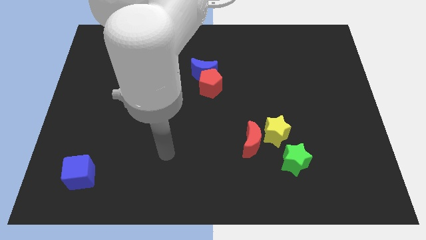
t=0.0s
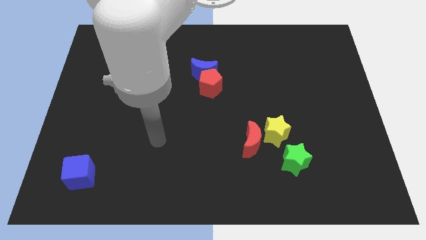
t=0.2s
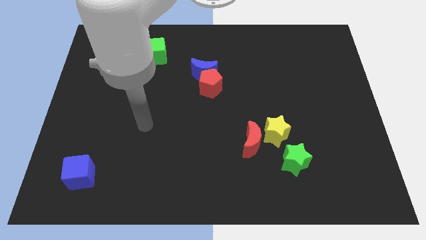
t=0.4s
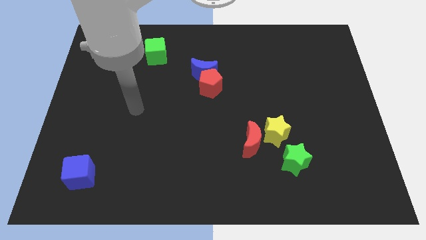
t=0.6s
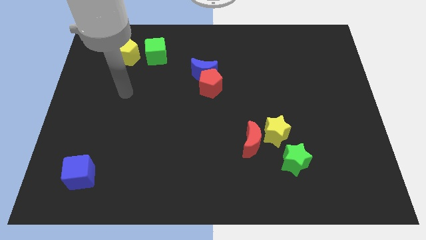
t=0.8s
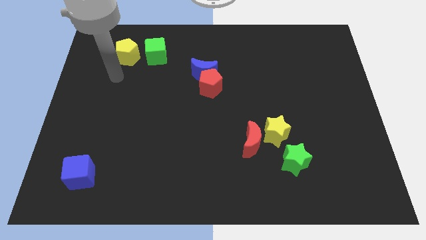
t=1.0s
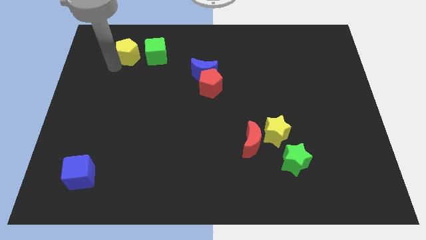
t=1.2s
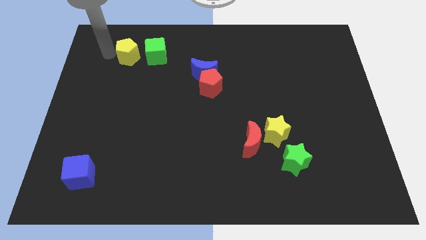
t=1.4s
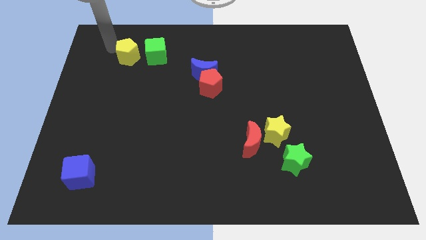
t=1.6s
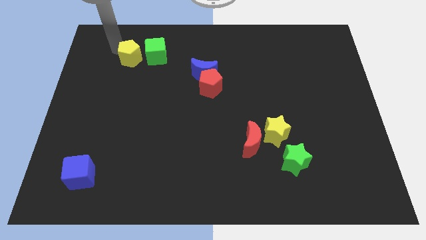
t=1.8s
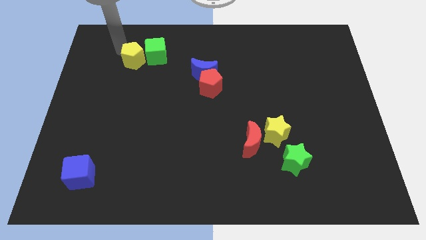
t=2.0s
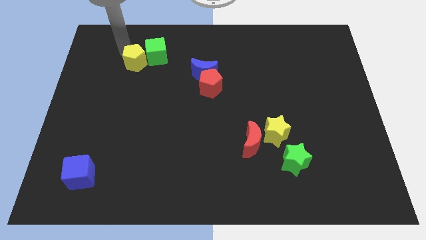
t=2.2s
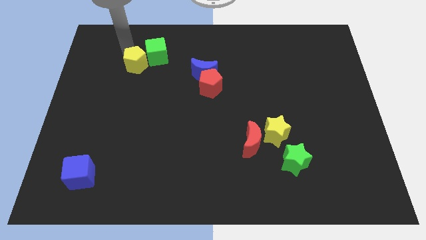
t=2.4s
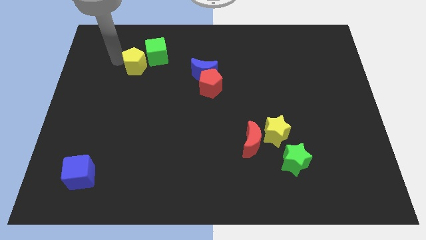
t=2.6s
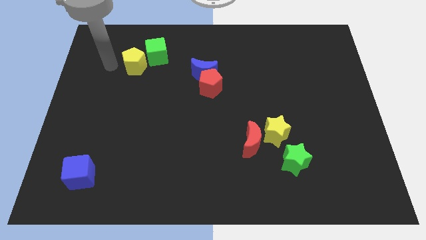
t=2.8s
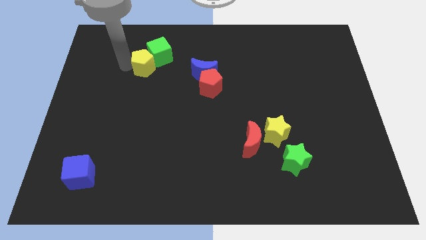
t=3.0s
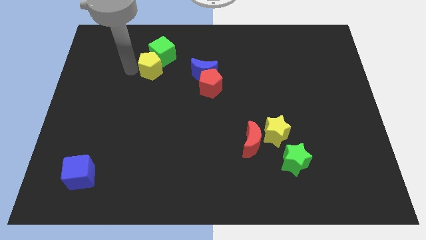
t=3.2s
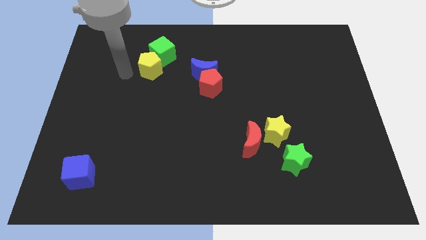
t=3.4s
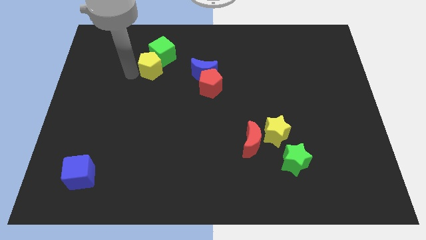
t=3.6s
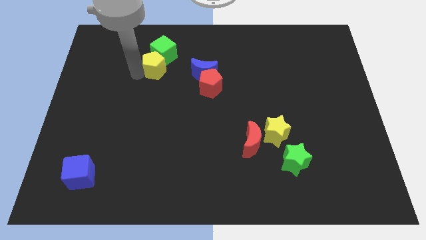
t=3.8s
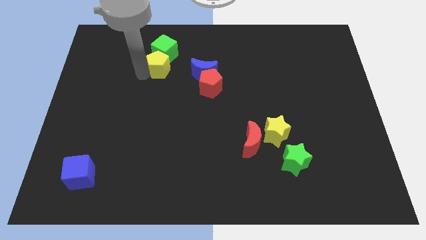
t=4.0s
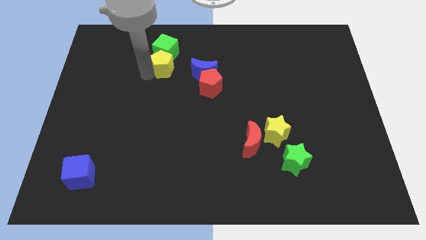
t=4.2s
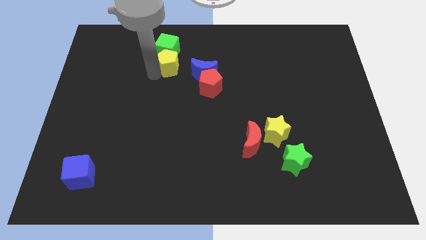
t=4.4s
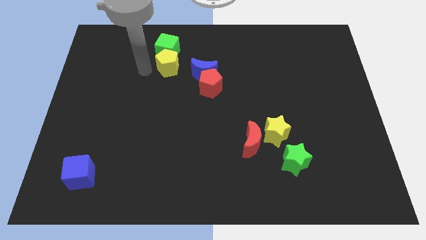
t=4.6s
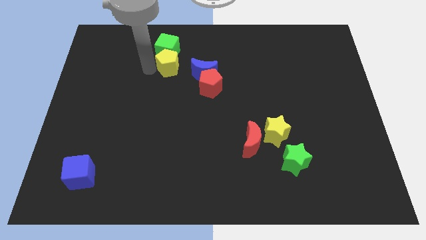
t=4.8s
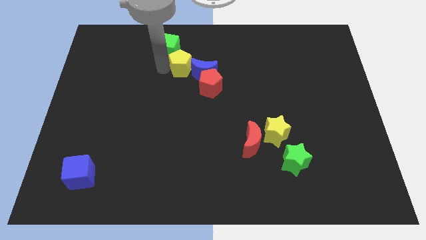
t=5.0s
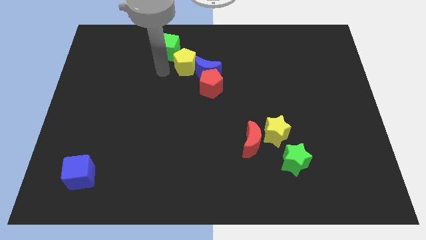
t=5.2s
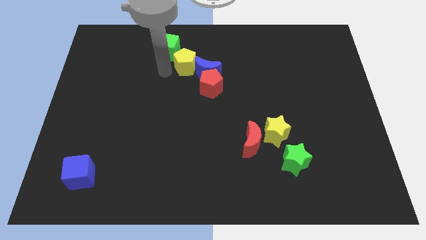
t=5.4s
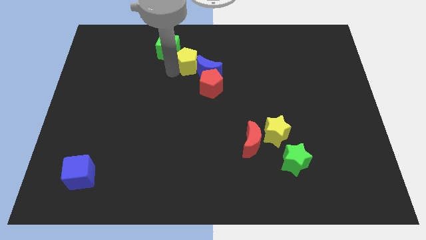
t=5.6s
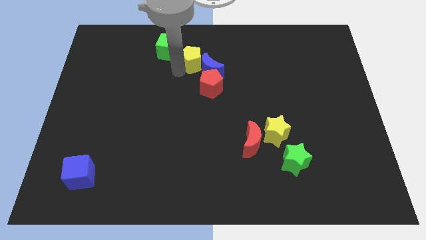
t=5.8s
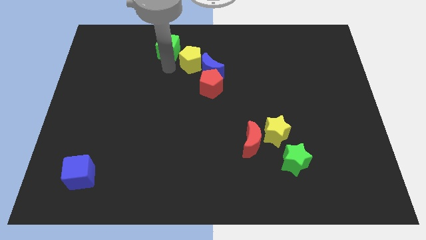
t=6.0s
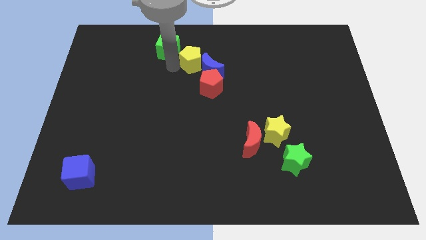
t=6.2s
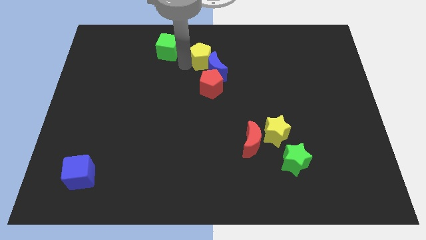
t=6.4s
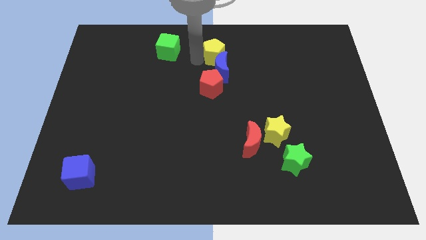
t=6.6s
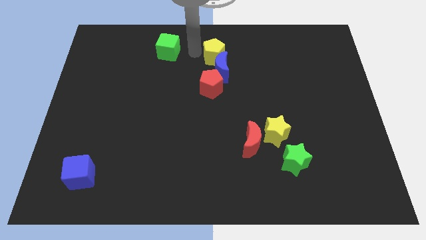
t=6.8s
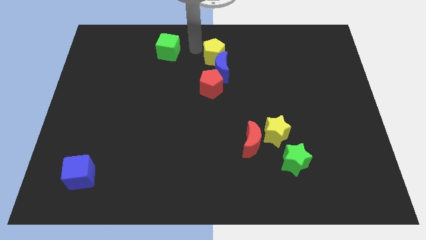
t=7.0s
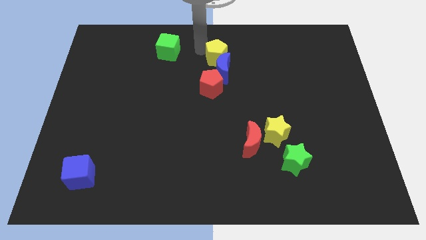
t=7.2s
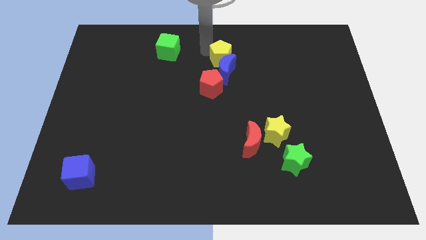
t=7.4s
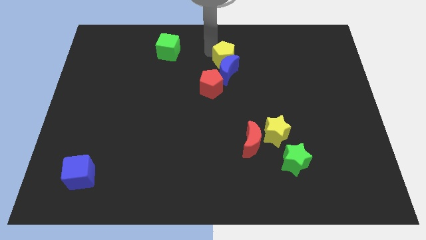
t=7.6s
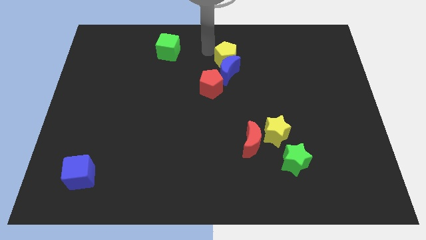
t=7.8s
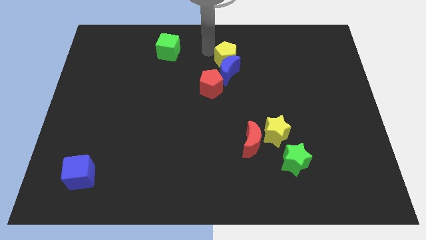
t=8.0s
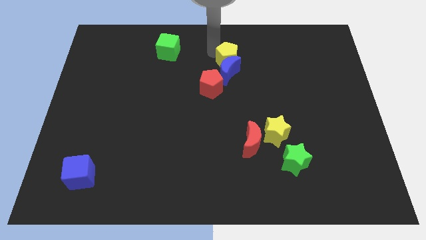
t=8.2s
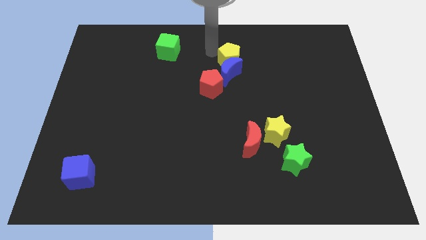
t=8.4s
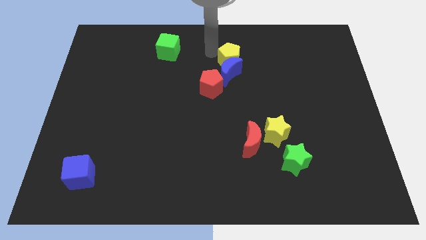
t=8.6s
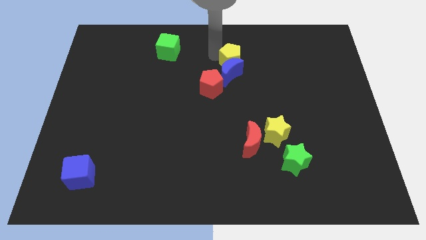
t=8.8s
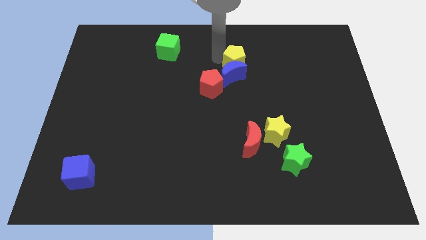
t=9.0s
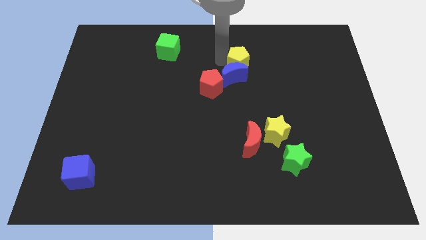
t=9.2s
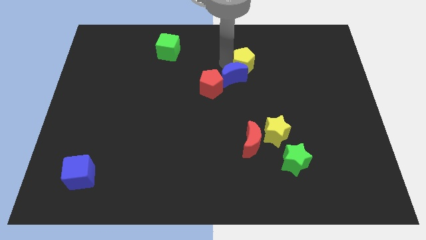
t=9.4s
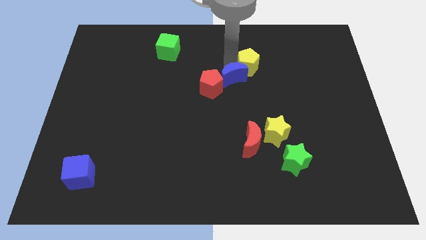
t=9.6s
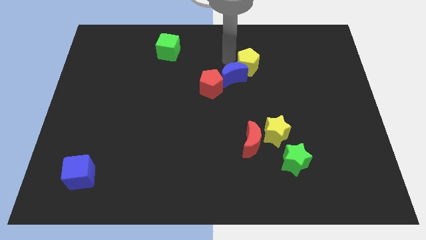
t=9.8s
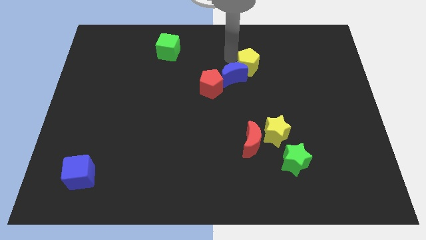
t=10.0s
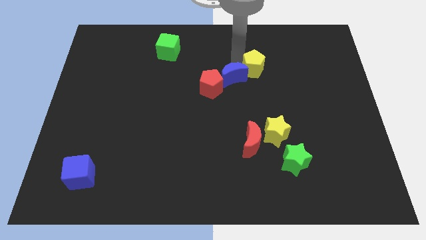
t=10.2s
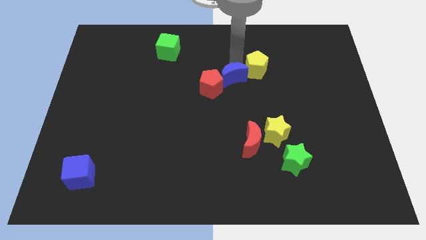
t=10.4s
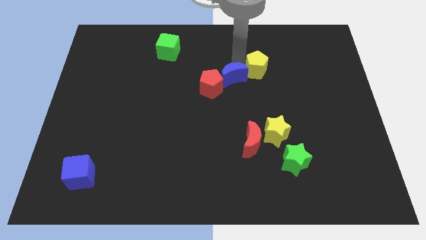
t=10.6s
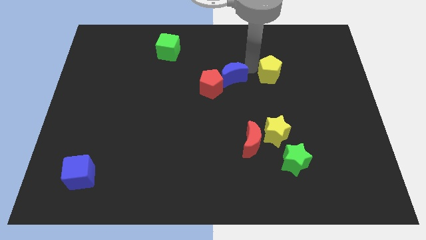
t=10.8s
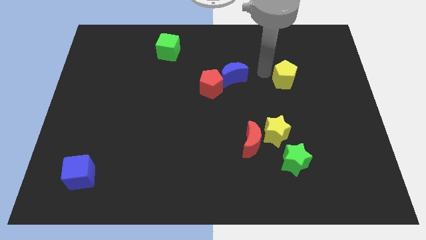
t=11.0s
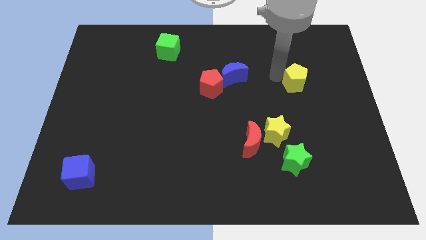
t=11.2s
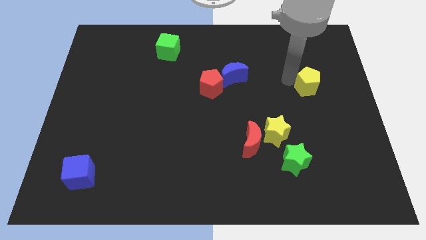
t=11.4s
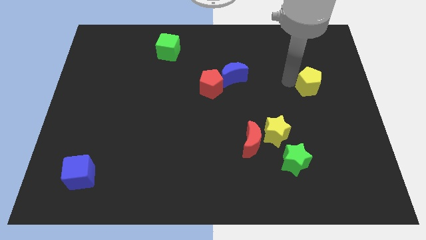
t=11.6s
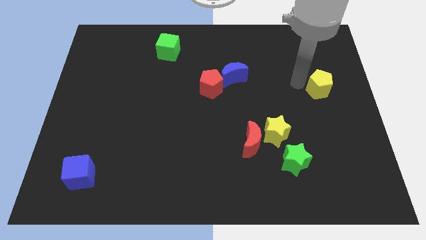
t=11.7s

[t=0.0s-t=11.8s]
push the yellow pentagon to the right side
